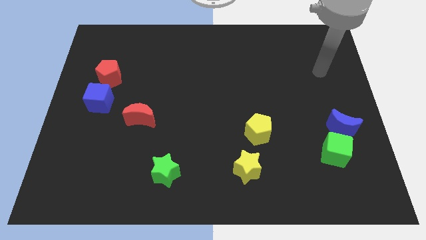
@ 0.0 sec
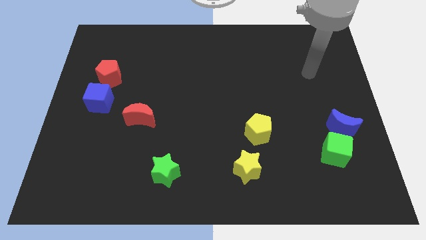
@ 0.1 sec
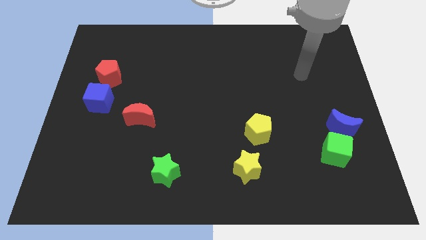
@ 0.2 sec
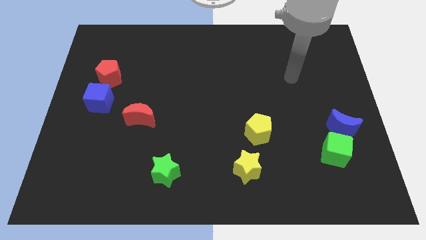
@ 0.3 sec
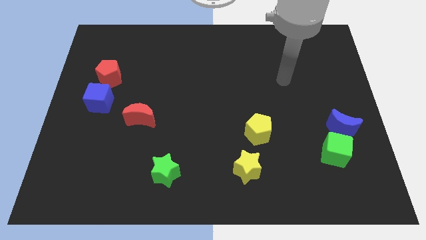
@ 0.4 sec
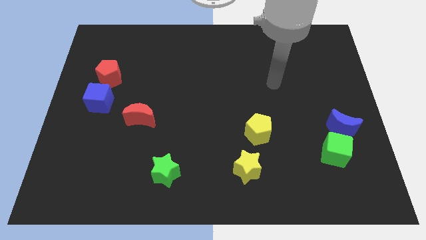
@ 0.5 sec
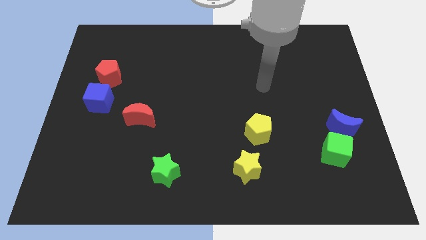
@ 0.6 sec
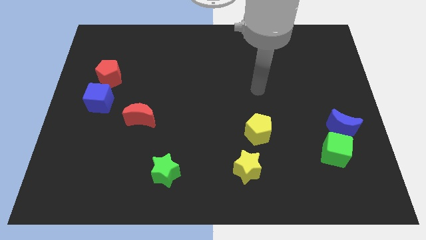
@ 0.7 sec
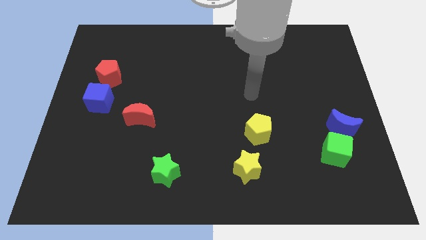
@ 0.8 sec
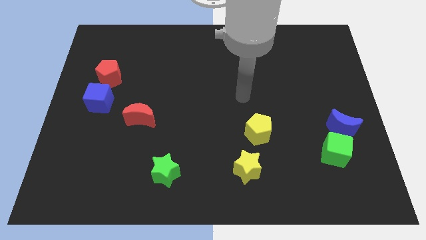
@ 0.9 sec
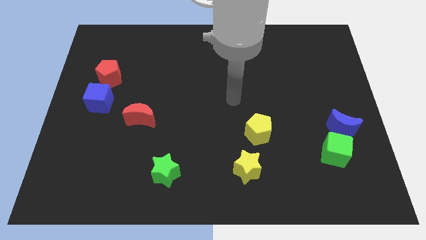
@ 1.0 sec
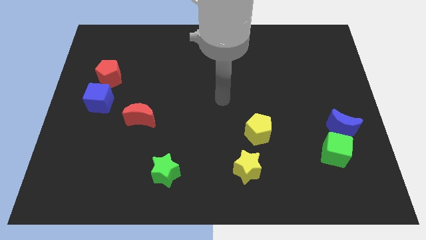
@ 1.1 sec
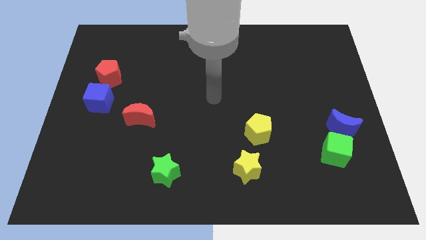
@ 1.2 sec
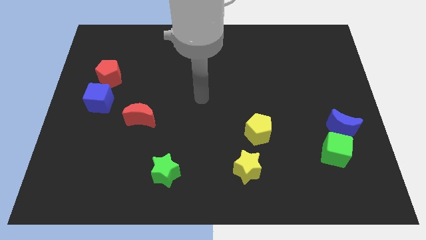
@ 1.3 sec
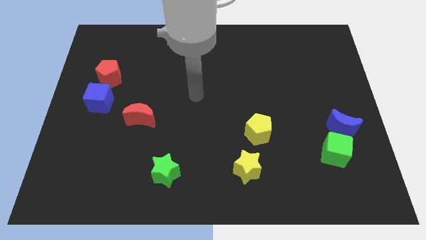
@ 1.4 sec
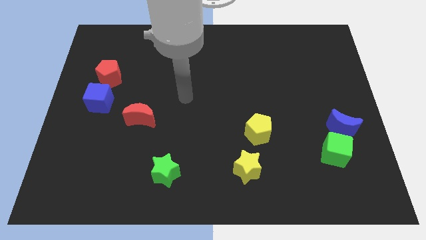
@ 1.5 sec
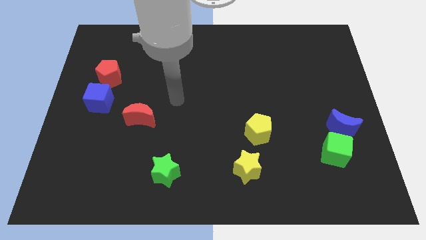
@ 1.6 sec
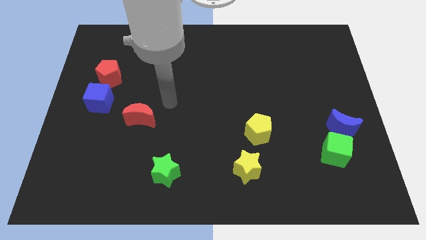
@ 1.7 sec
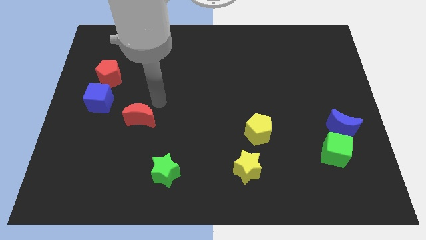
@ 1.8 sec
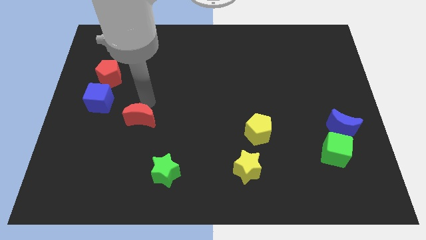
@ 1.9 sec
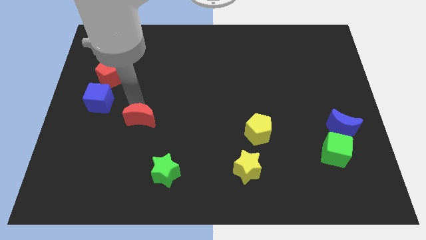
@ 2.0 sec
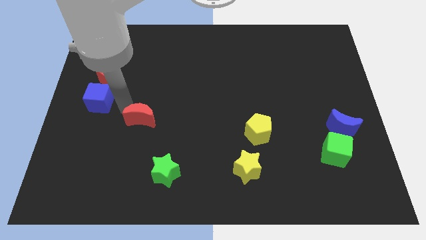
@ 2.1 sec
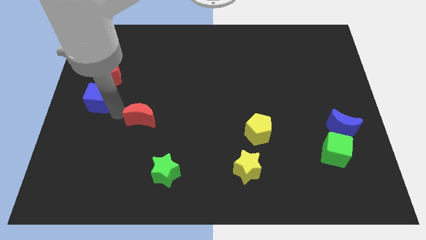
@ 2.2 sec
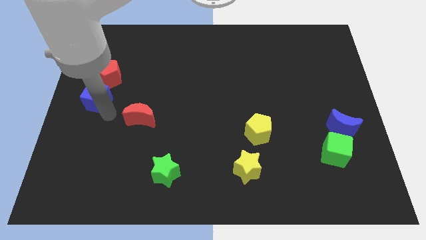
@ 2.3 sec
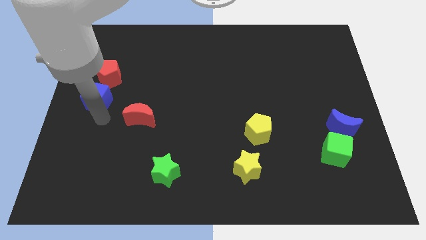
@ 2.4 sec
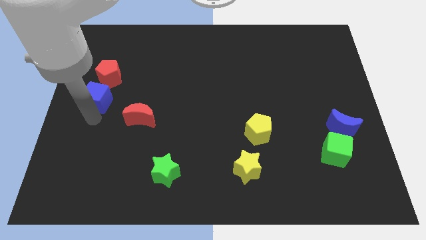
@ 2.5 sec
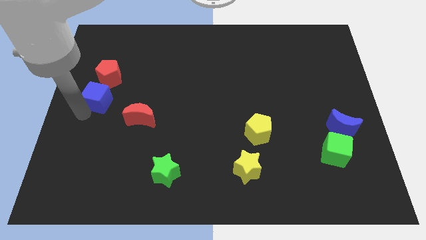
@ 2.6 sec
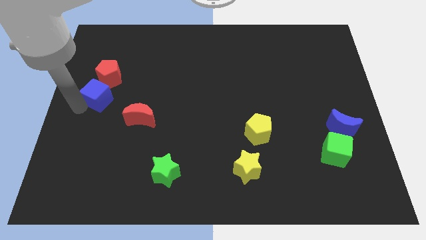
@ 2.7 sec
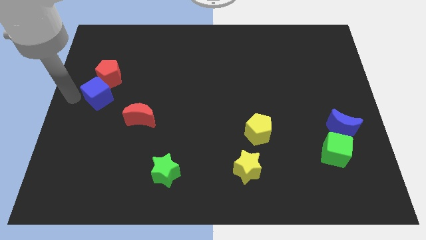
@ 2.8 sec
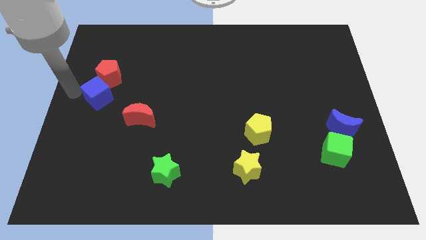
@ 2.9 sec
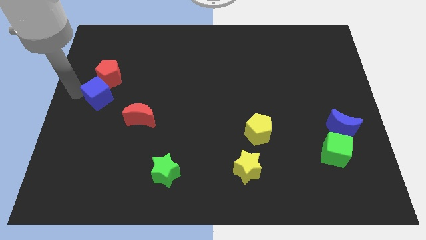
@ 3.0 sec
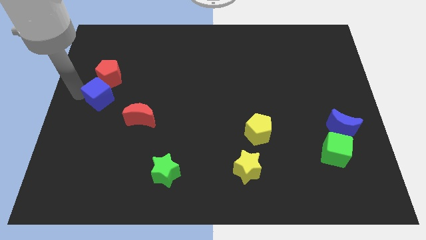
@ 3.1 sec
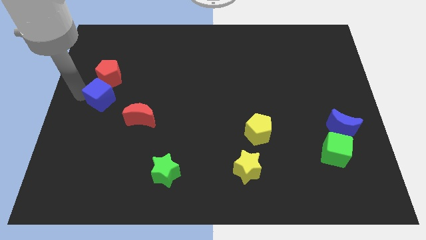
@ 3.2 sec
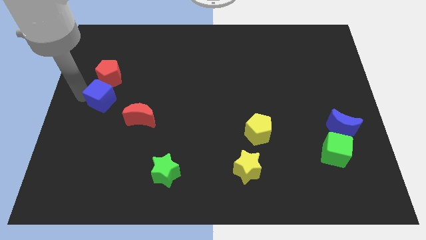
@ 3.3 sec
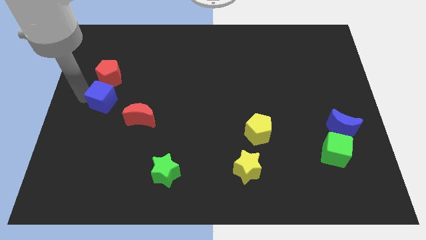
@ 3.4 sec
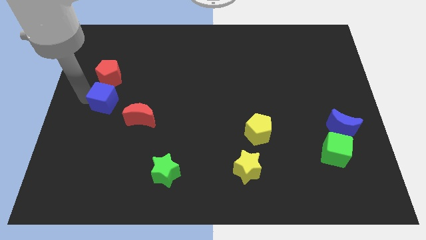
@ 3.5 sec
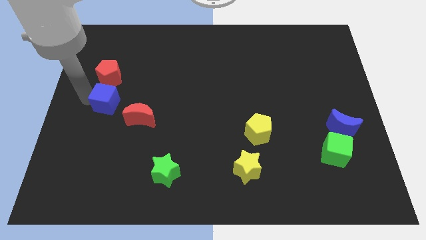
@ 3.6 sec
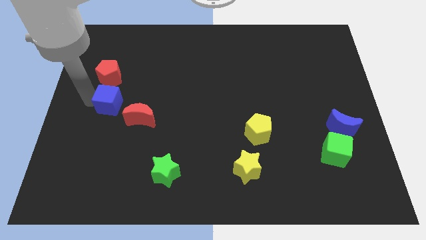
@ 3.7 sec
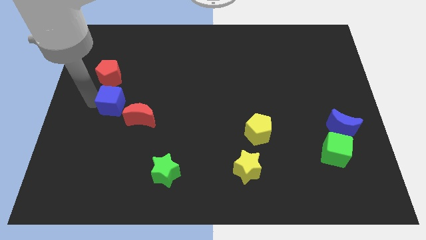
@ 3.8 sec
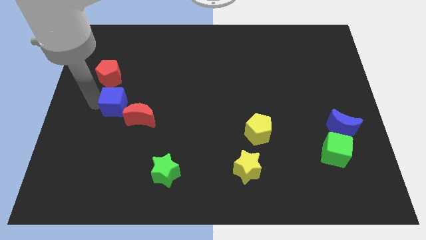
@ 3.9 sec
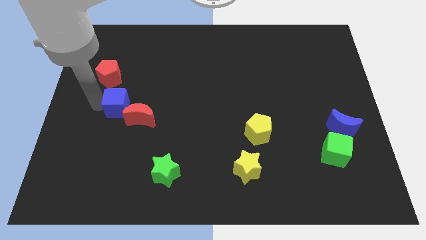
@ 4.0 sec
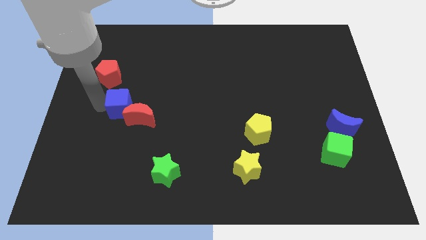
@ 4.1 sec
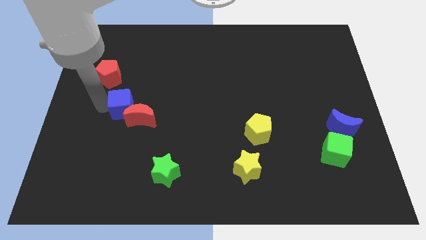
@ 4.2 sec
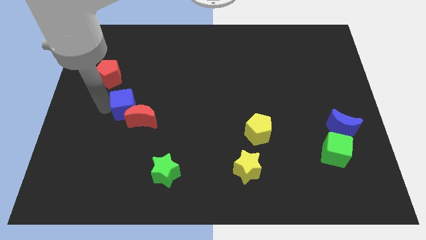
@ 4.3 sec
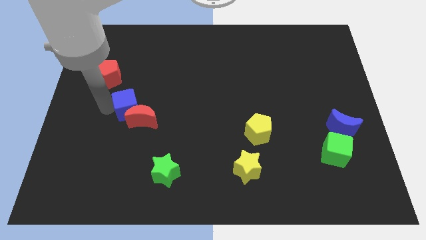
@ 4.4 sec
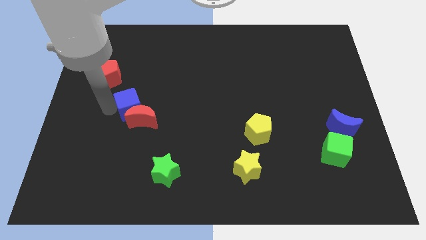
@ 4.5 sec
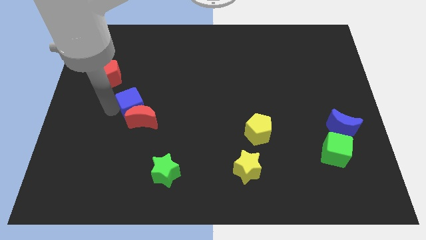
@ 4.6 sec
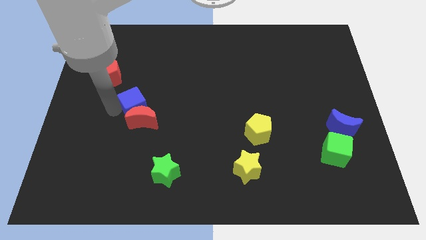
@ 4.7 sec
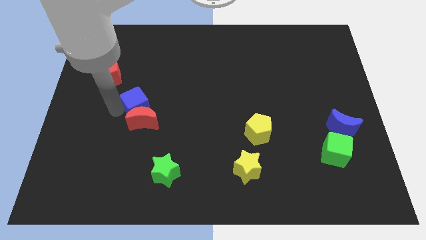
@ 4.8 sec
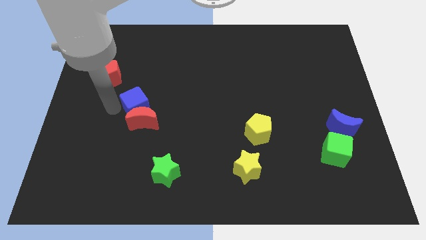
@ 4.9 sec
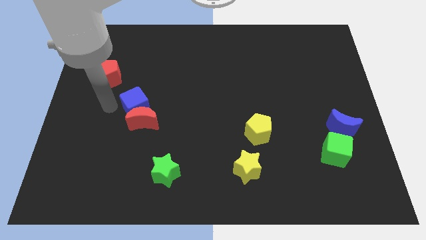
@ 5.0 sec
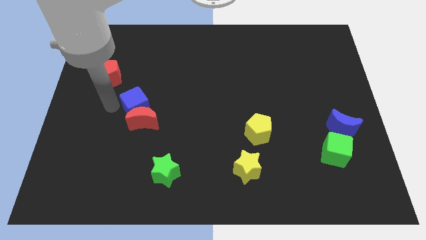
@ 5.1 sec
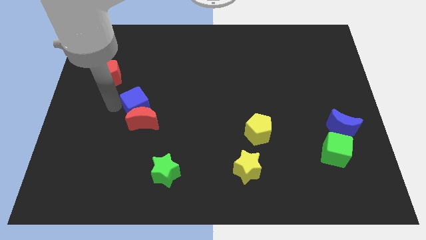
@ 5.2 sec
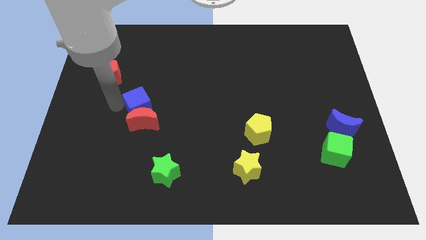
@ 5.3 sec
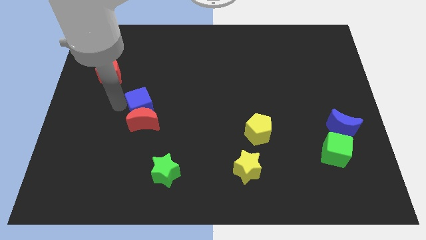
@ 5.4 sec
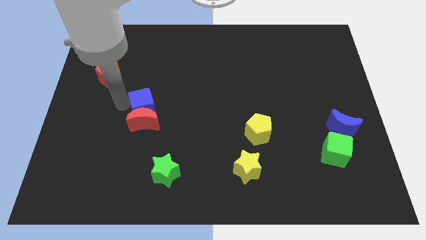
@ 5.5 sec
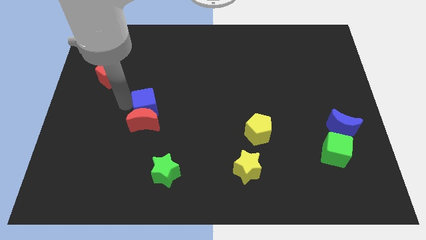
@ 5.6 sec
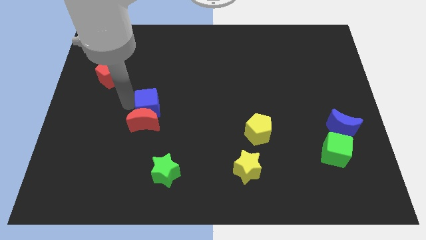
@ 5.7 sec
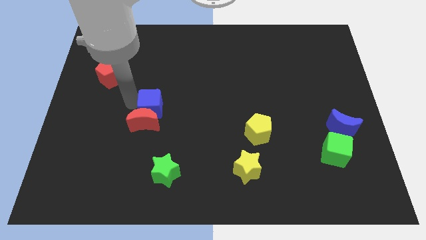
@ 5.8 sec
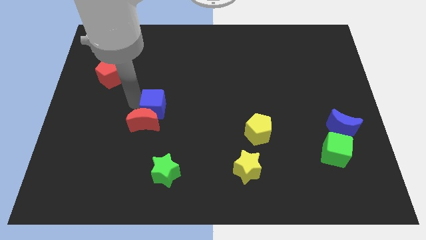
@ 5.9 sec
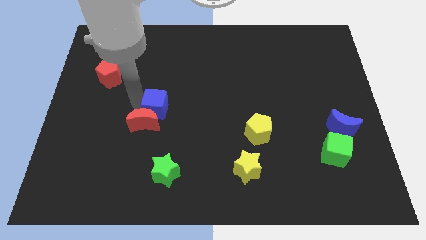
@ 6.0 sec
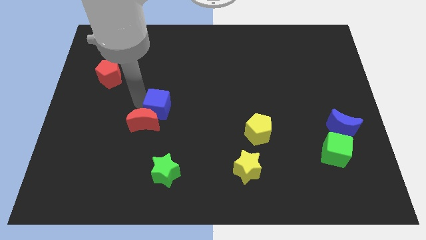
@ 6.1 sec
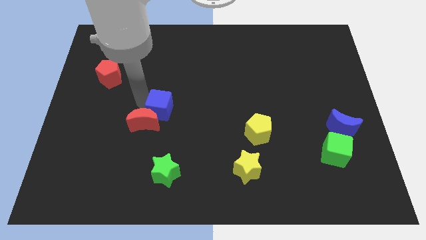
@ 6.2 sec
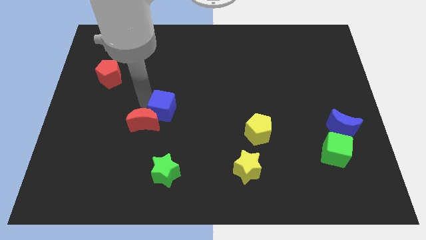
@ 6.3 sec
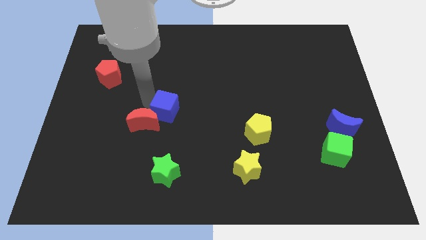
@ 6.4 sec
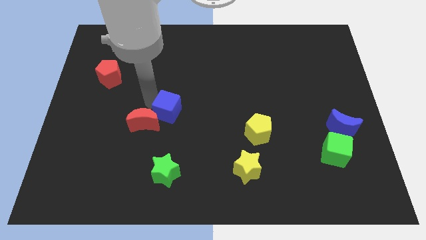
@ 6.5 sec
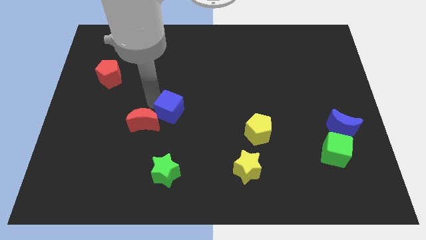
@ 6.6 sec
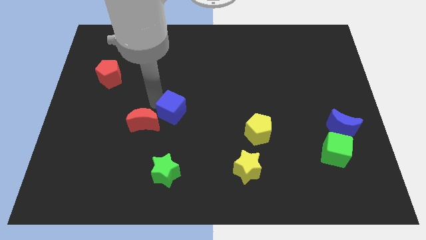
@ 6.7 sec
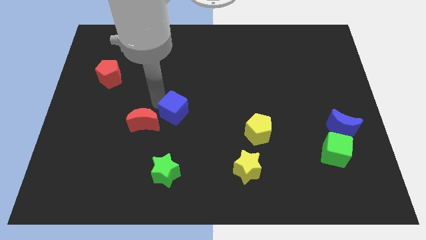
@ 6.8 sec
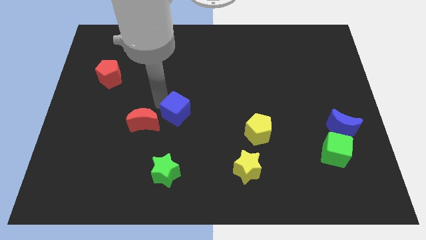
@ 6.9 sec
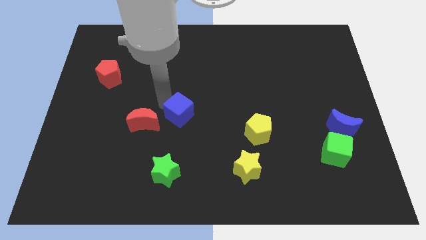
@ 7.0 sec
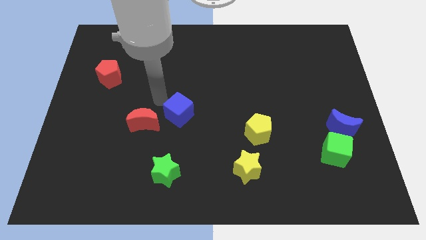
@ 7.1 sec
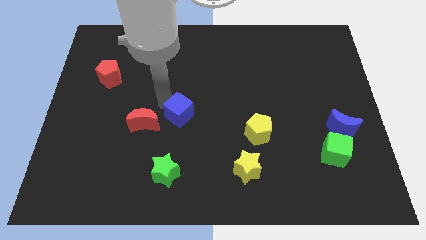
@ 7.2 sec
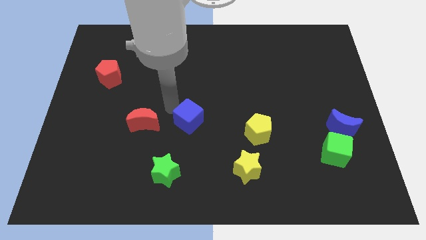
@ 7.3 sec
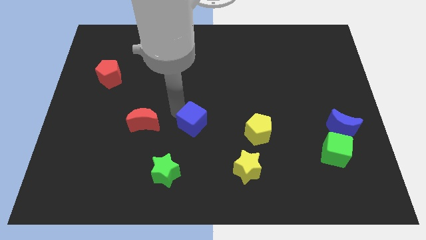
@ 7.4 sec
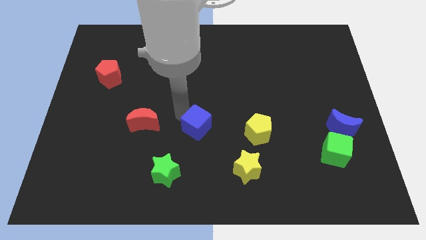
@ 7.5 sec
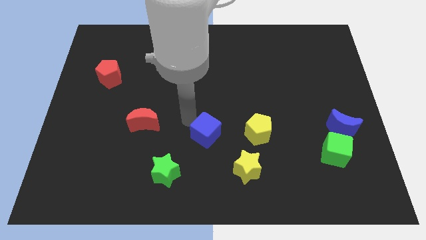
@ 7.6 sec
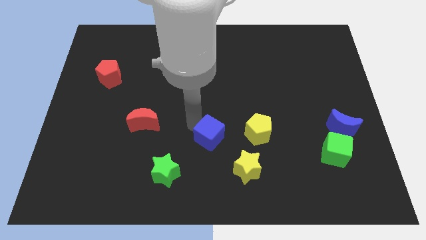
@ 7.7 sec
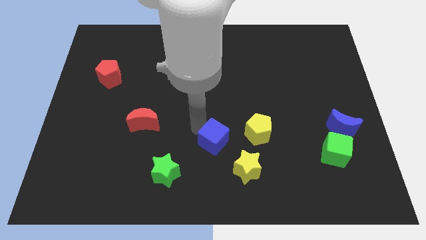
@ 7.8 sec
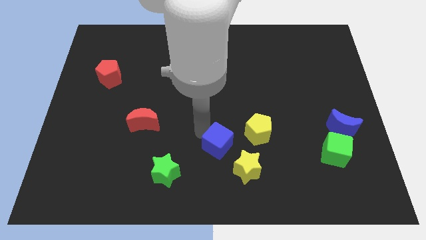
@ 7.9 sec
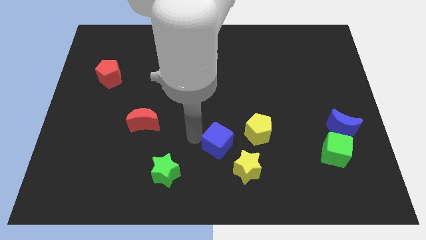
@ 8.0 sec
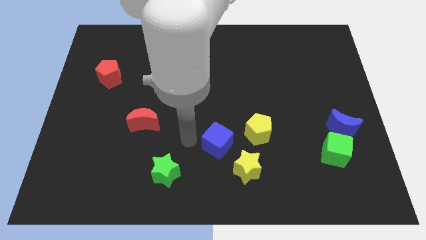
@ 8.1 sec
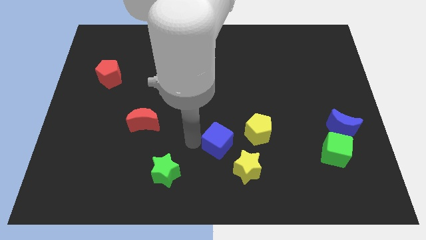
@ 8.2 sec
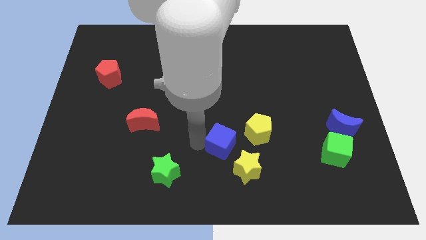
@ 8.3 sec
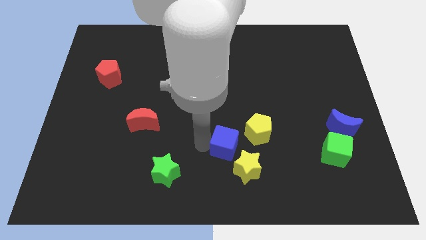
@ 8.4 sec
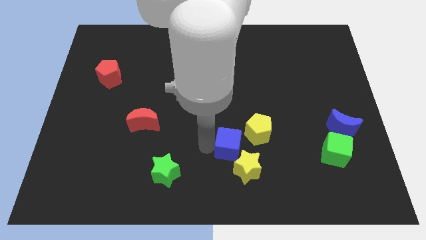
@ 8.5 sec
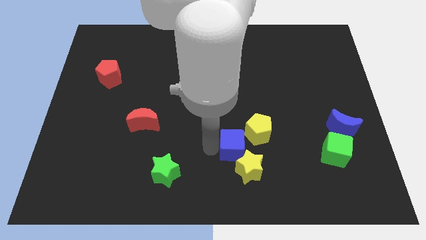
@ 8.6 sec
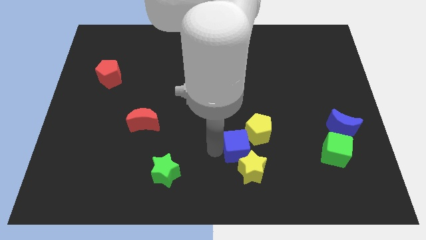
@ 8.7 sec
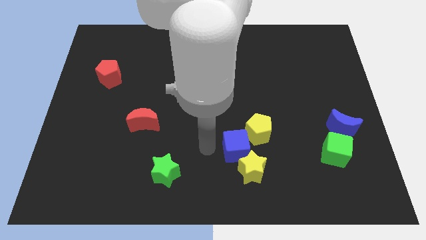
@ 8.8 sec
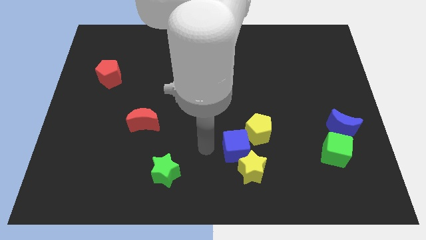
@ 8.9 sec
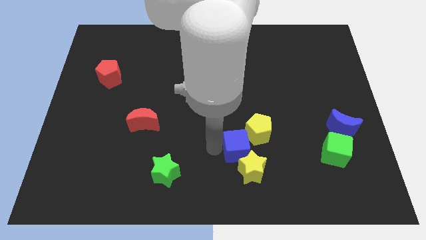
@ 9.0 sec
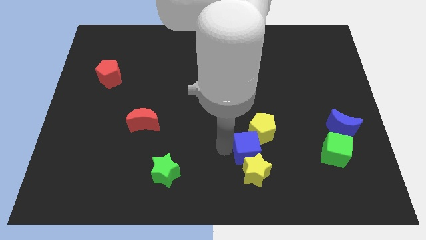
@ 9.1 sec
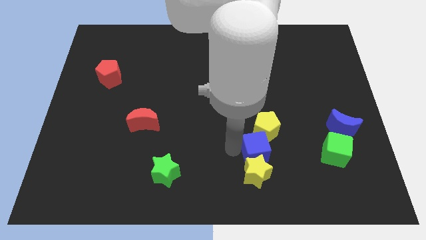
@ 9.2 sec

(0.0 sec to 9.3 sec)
push the blue cube to the top right side of the yellow star
